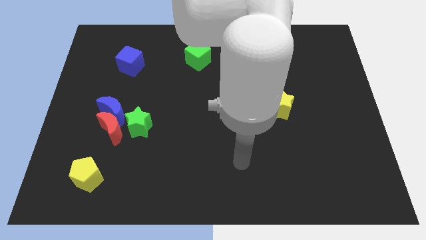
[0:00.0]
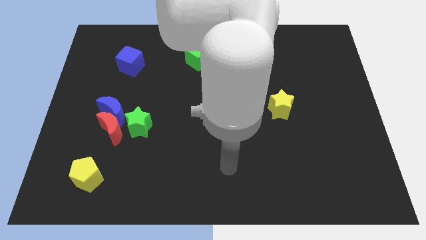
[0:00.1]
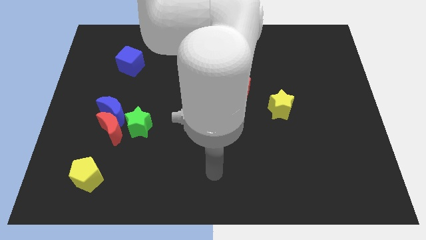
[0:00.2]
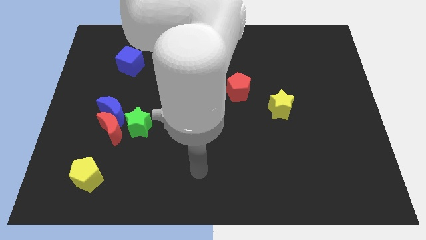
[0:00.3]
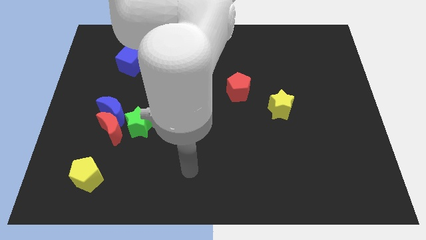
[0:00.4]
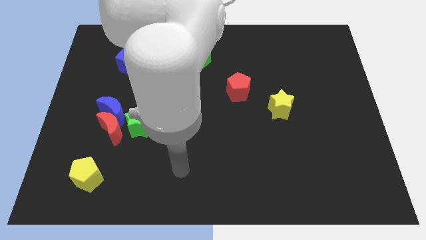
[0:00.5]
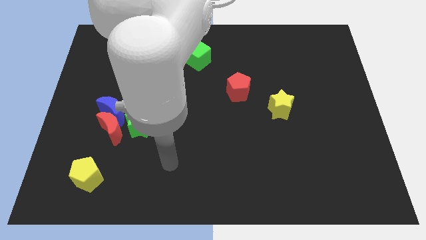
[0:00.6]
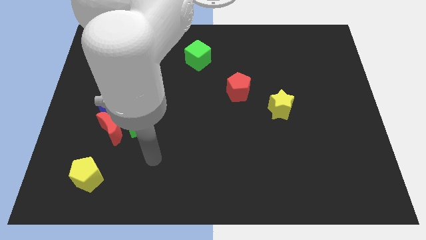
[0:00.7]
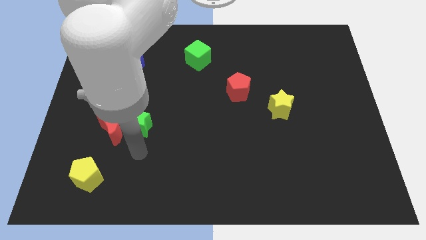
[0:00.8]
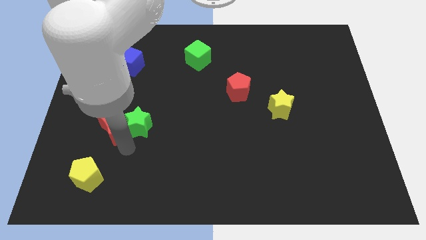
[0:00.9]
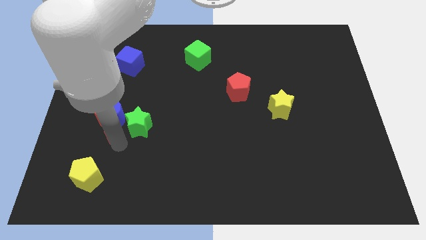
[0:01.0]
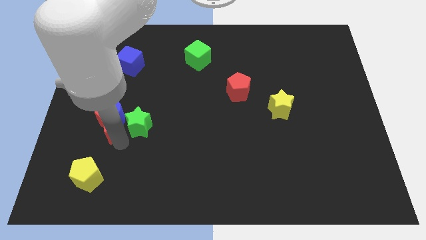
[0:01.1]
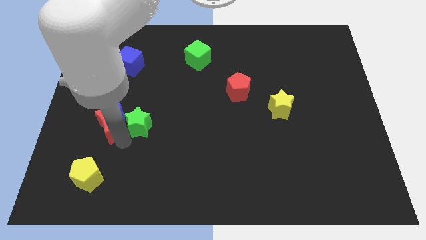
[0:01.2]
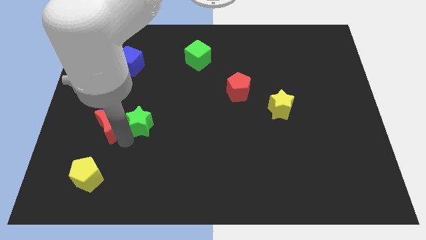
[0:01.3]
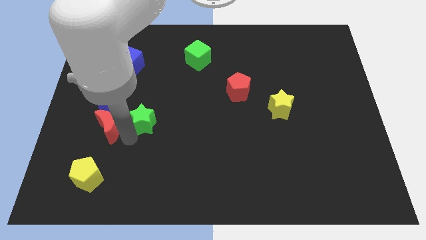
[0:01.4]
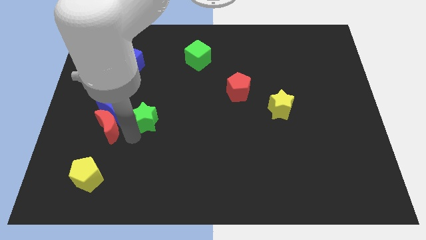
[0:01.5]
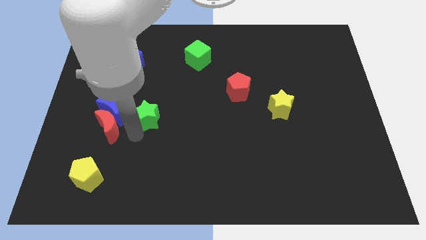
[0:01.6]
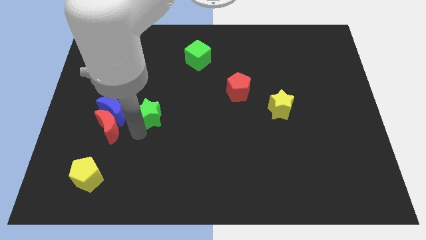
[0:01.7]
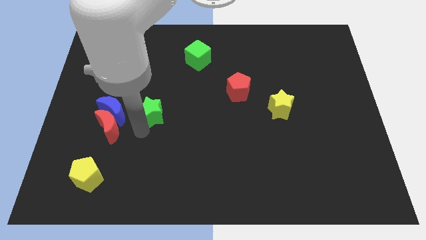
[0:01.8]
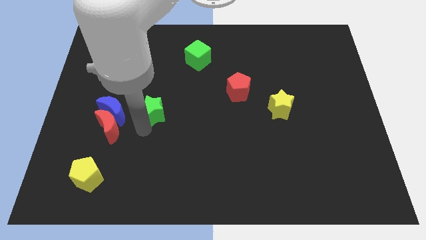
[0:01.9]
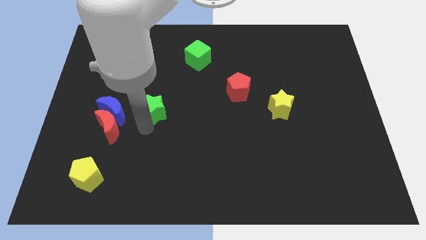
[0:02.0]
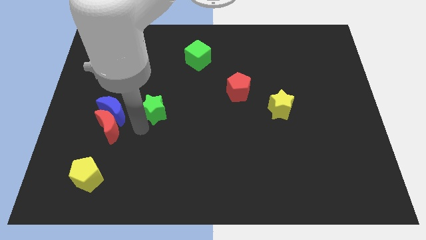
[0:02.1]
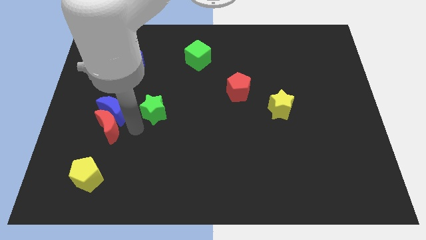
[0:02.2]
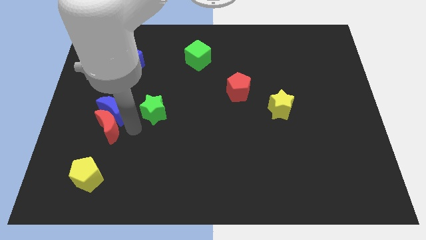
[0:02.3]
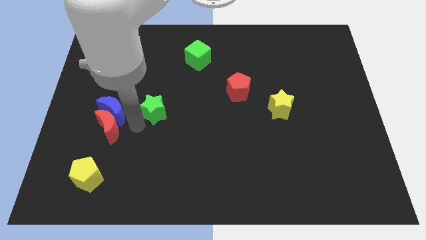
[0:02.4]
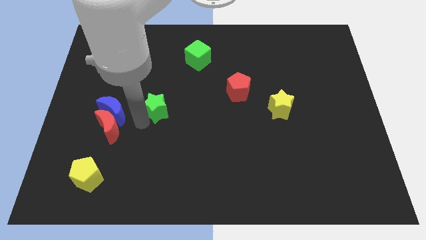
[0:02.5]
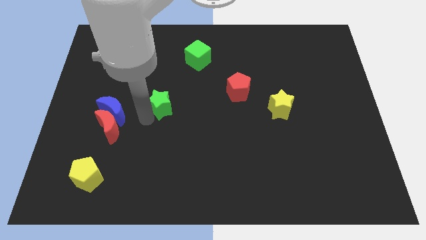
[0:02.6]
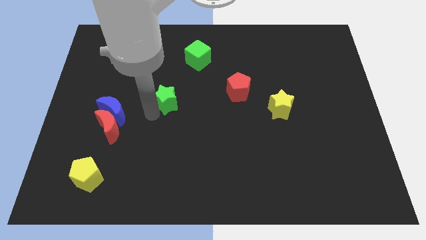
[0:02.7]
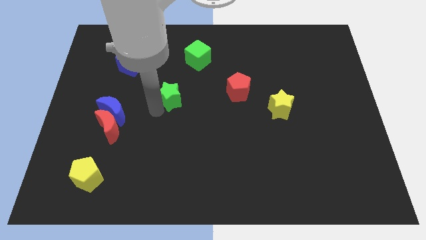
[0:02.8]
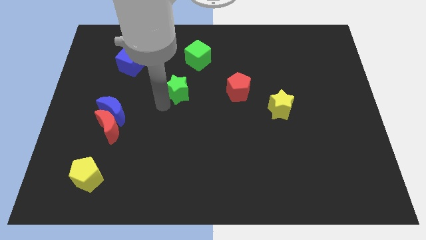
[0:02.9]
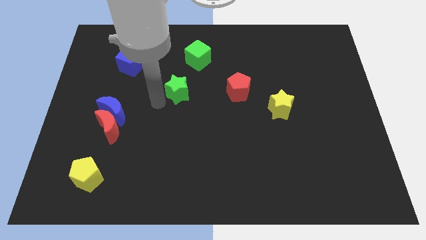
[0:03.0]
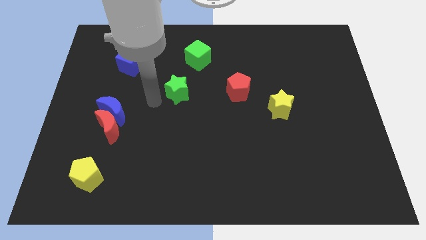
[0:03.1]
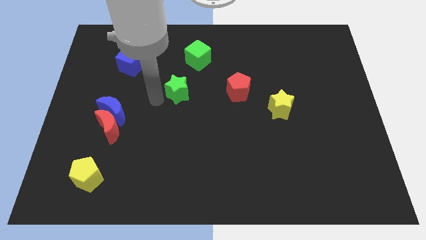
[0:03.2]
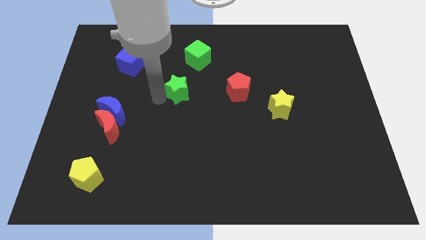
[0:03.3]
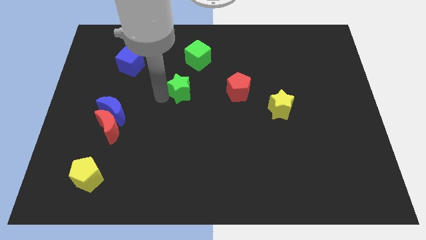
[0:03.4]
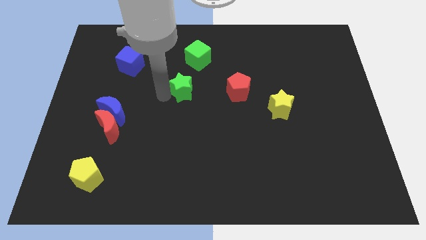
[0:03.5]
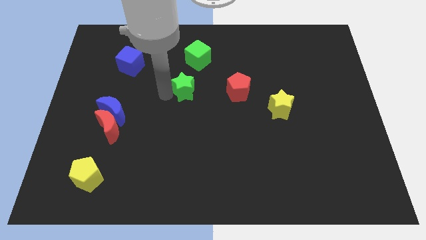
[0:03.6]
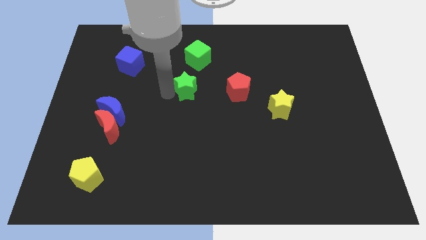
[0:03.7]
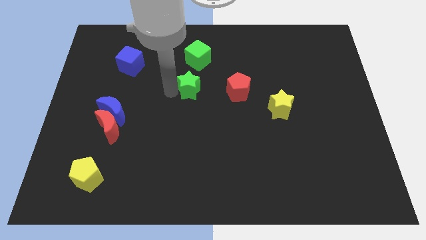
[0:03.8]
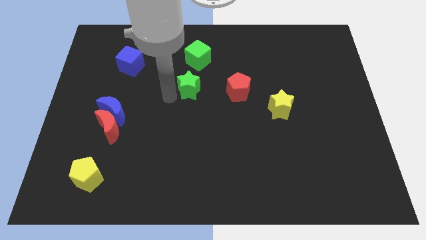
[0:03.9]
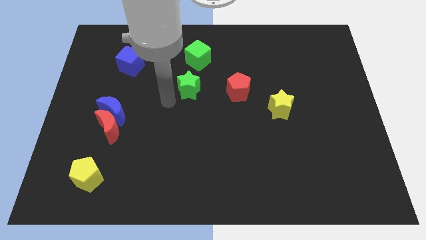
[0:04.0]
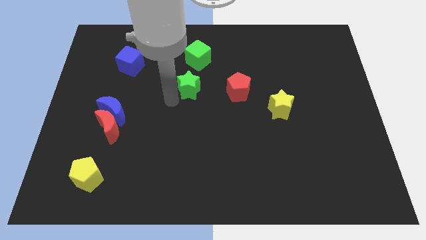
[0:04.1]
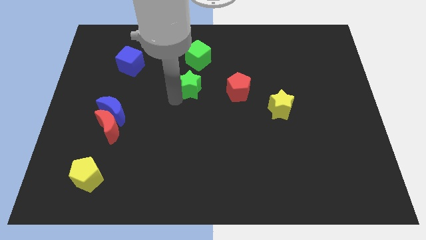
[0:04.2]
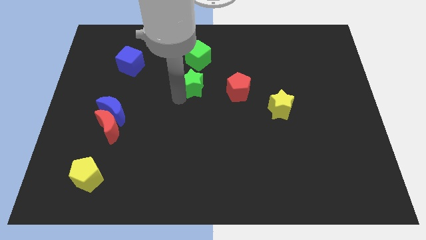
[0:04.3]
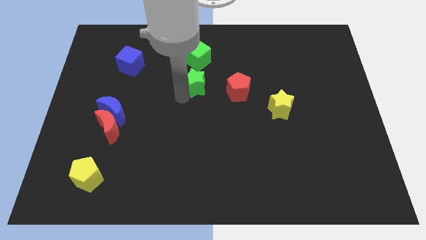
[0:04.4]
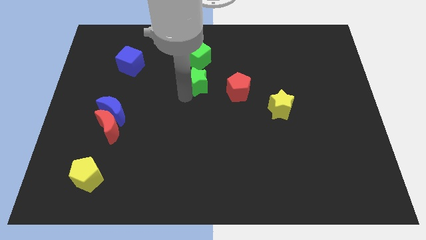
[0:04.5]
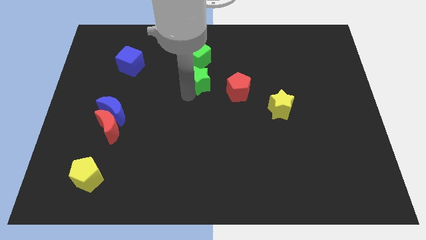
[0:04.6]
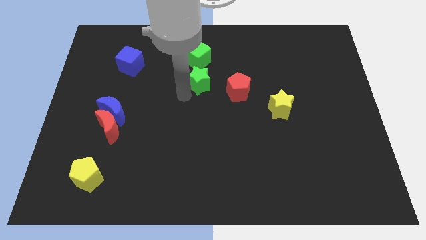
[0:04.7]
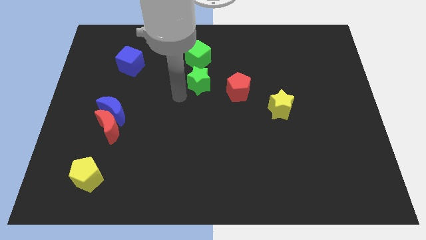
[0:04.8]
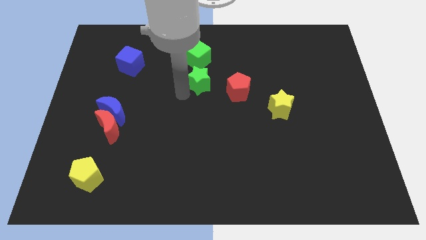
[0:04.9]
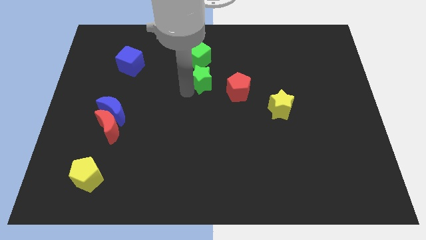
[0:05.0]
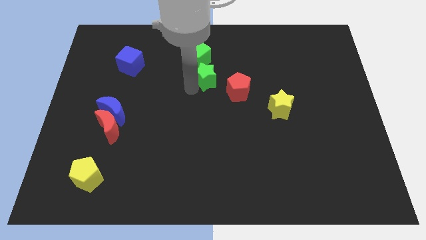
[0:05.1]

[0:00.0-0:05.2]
slide the green star up and right

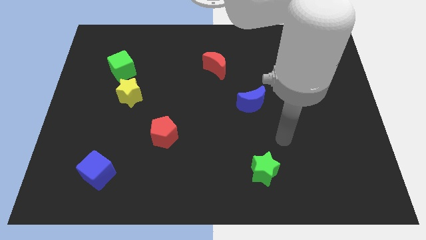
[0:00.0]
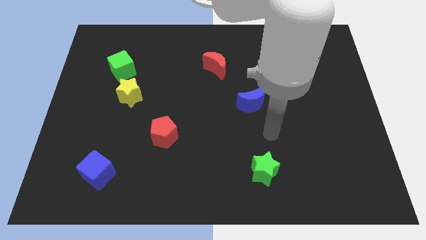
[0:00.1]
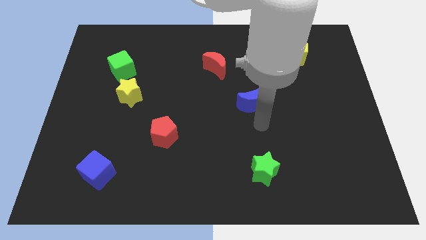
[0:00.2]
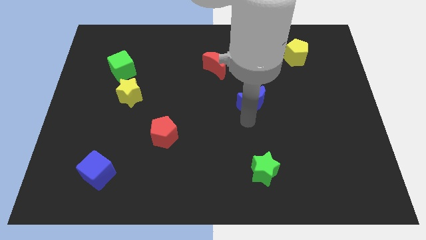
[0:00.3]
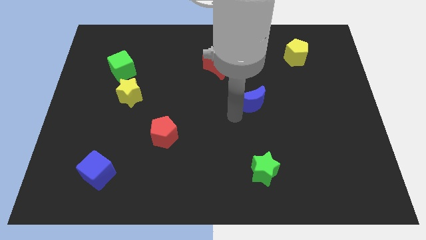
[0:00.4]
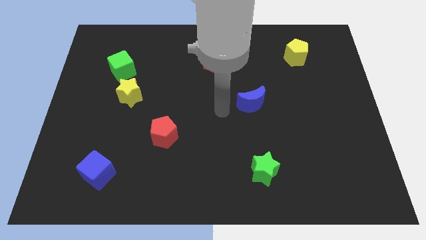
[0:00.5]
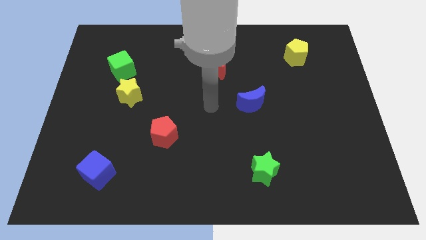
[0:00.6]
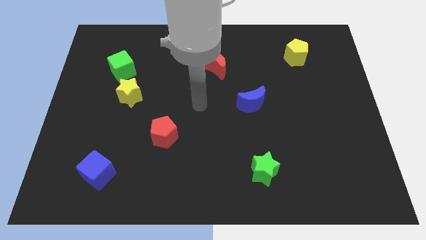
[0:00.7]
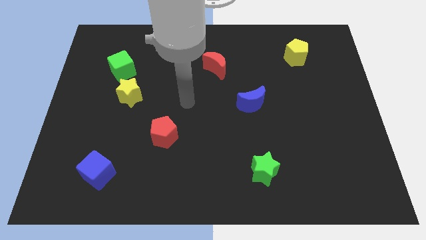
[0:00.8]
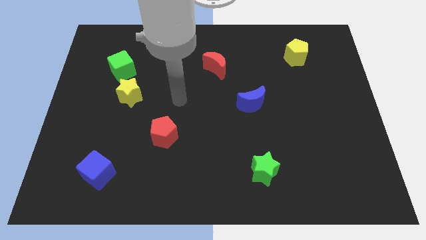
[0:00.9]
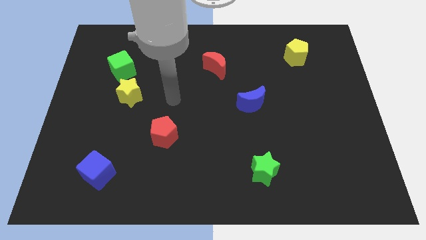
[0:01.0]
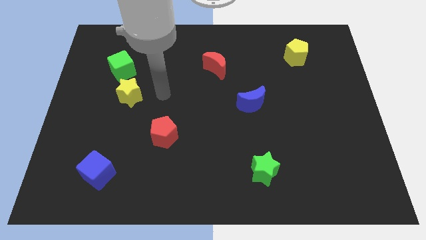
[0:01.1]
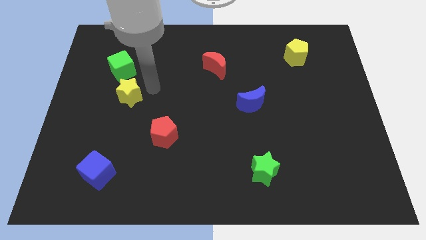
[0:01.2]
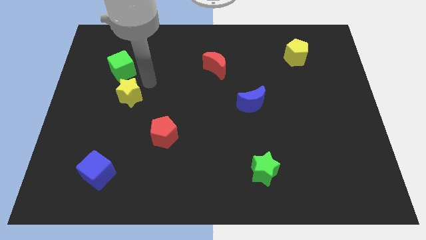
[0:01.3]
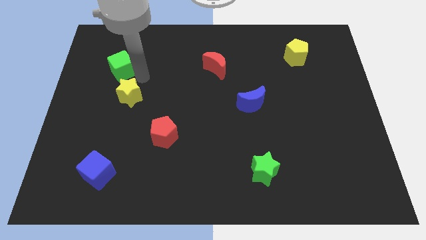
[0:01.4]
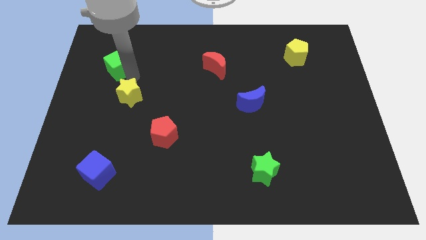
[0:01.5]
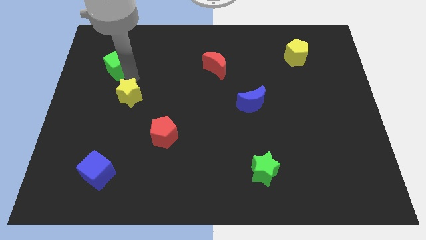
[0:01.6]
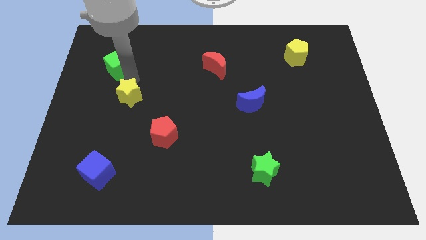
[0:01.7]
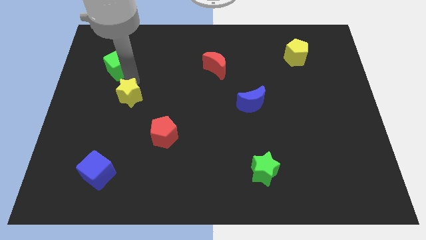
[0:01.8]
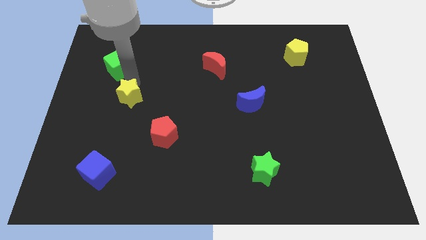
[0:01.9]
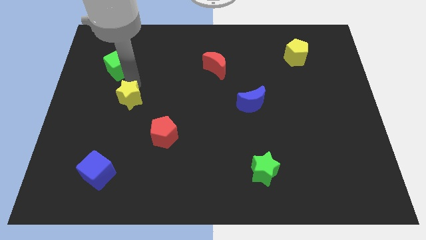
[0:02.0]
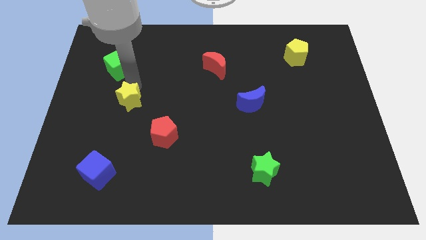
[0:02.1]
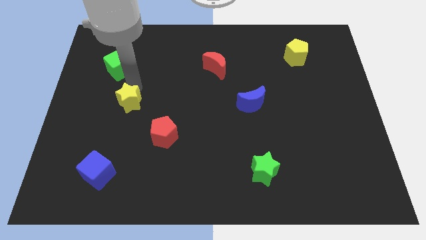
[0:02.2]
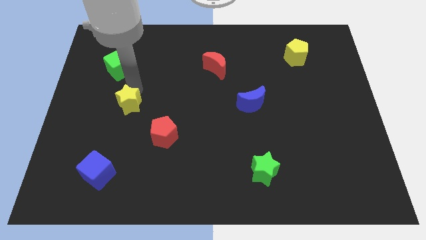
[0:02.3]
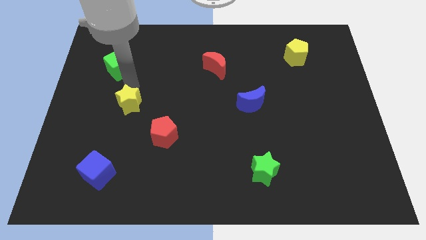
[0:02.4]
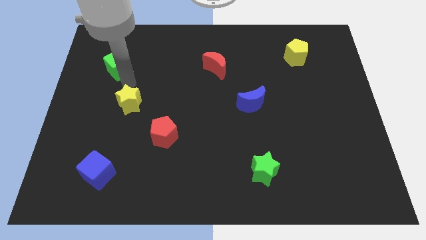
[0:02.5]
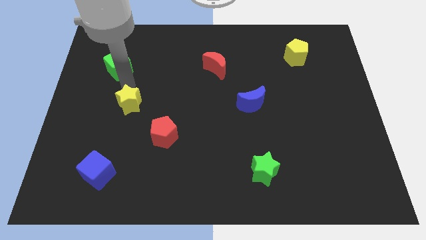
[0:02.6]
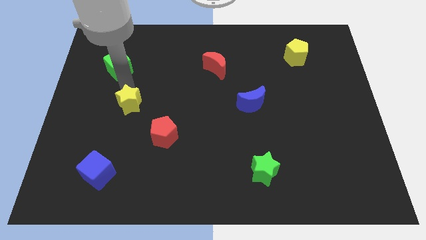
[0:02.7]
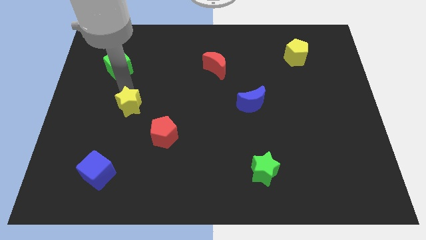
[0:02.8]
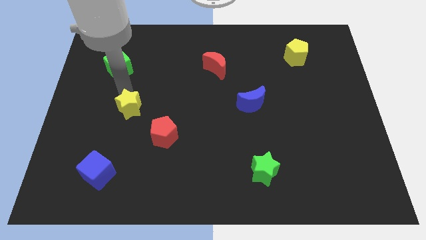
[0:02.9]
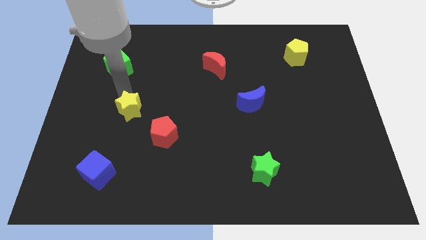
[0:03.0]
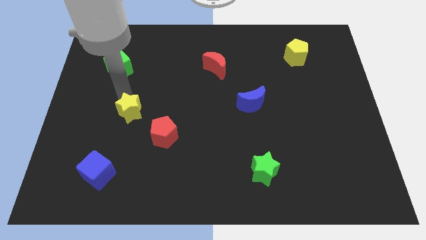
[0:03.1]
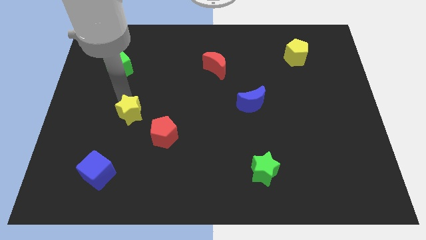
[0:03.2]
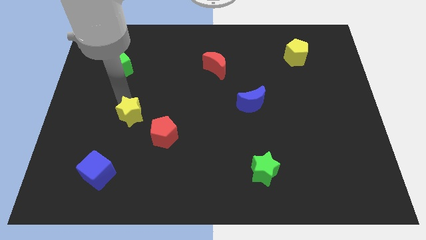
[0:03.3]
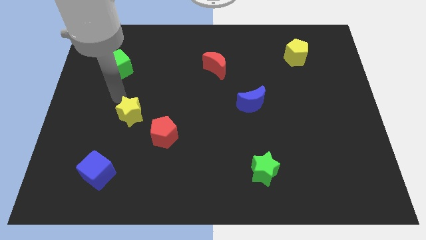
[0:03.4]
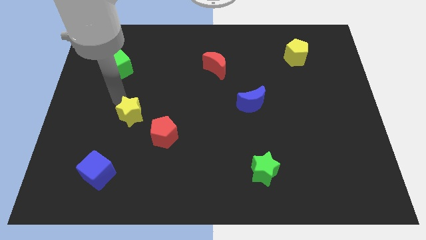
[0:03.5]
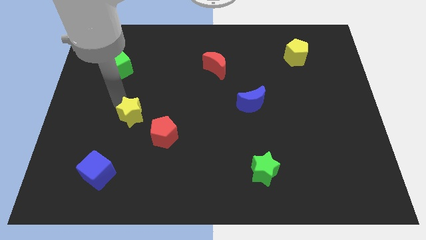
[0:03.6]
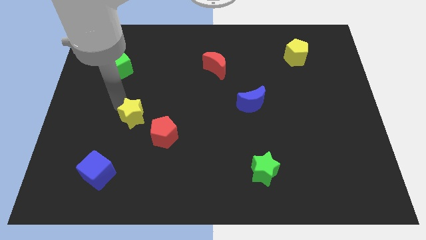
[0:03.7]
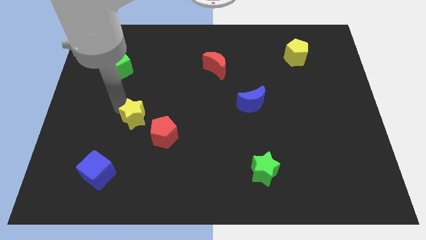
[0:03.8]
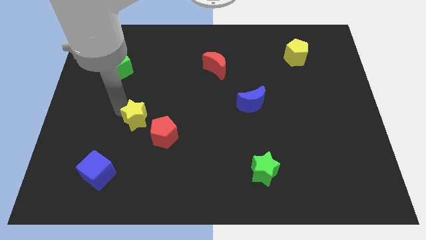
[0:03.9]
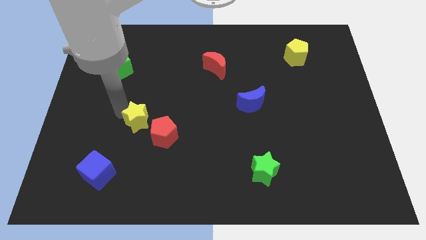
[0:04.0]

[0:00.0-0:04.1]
move the yellow star a little bit down and then right
